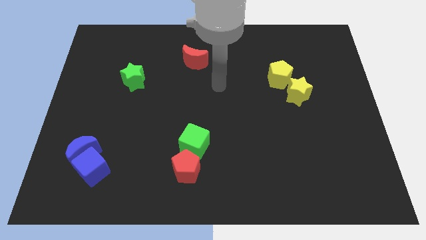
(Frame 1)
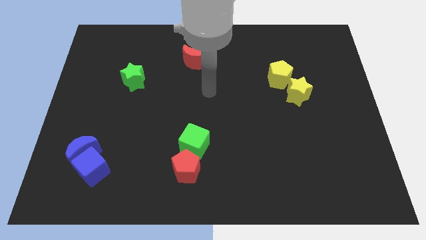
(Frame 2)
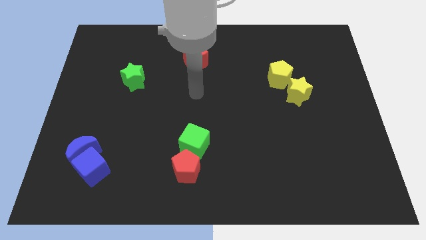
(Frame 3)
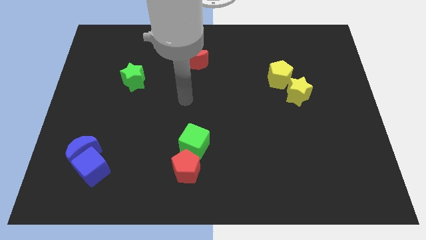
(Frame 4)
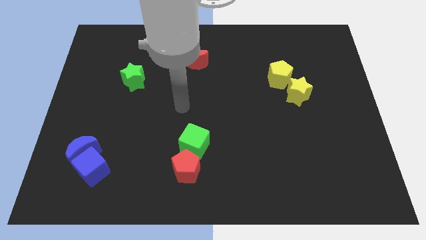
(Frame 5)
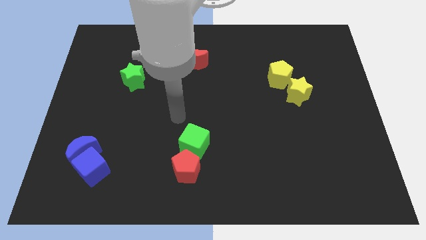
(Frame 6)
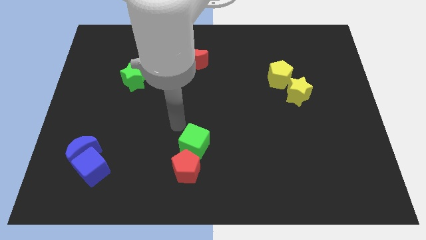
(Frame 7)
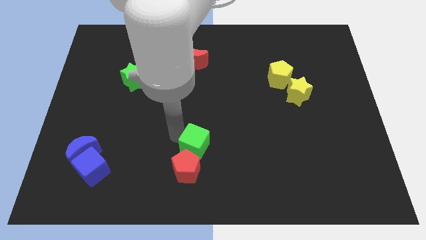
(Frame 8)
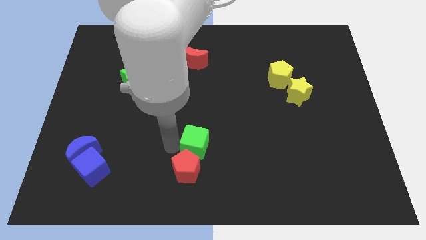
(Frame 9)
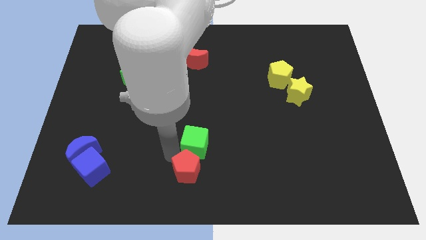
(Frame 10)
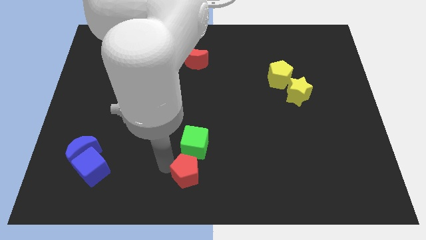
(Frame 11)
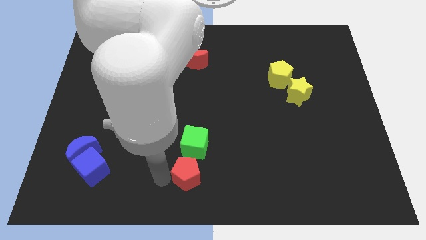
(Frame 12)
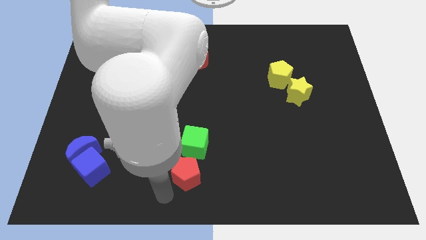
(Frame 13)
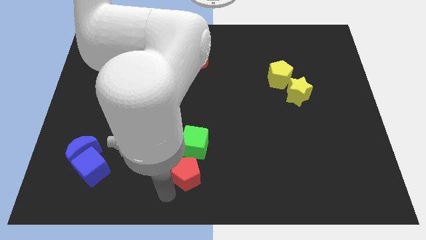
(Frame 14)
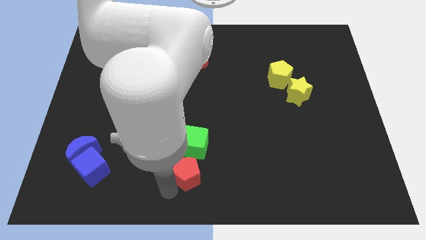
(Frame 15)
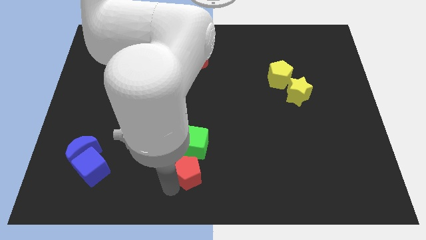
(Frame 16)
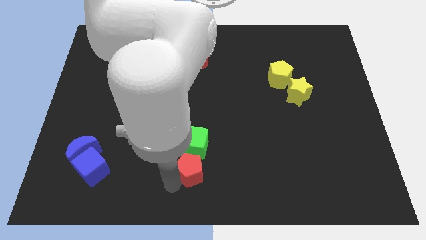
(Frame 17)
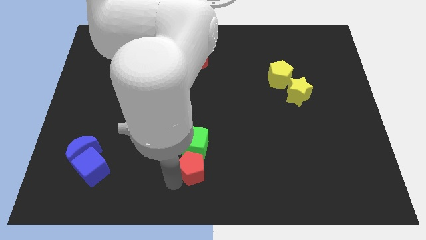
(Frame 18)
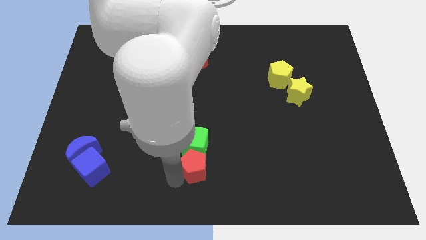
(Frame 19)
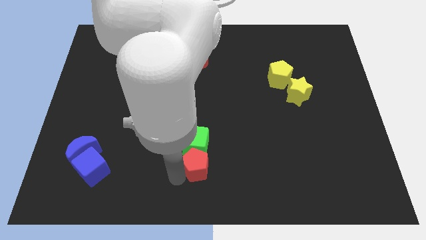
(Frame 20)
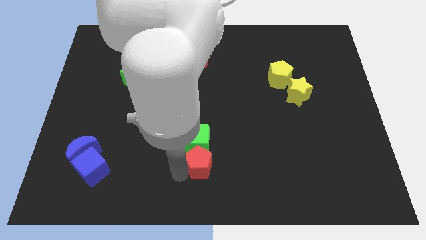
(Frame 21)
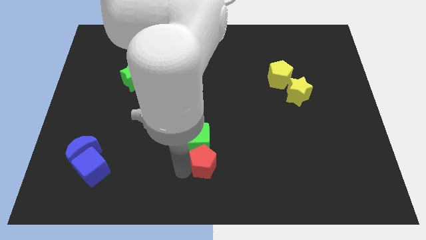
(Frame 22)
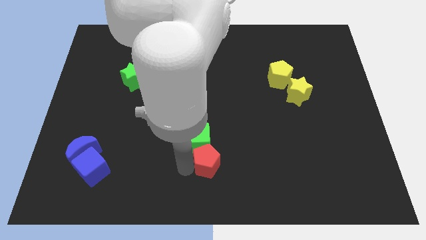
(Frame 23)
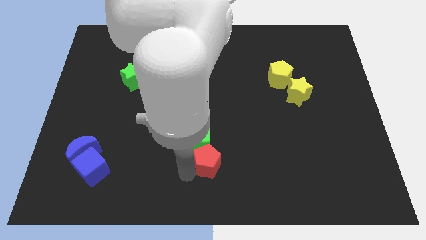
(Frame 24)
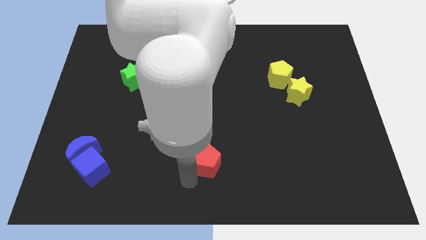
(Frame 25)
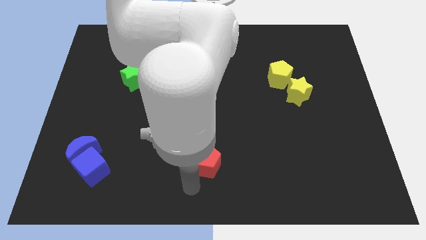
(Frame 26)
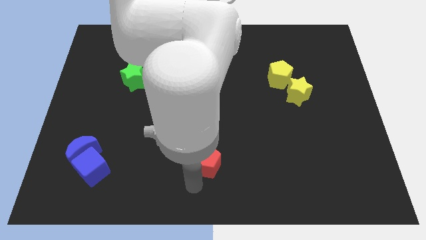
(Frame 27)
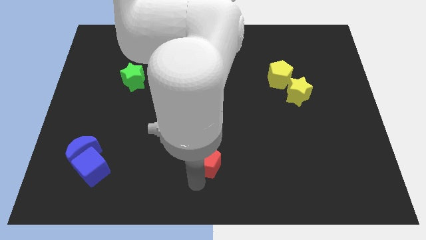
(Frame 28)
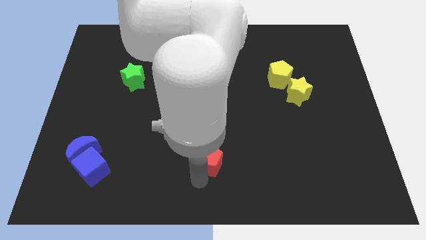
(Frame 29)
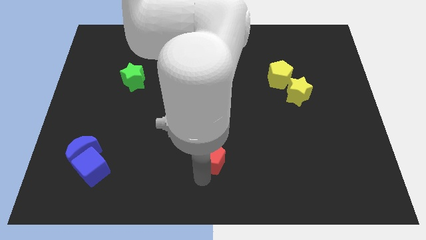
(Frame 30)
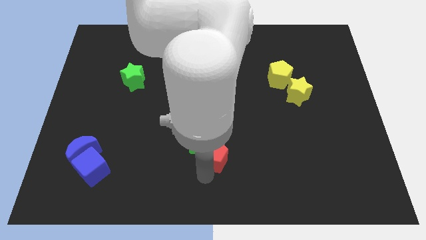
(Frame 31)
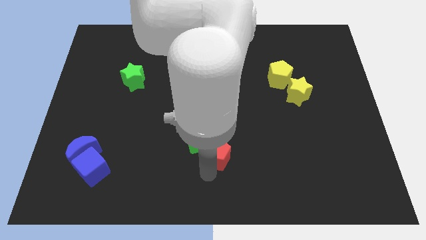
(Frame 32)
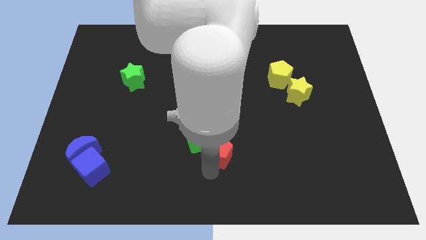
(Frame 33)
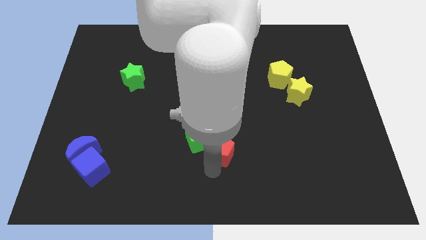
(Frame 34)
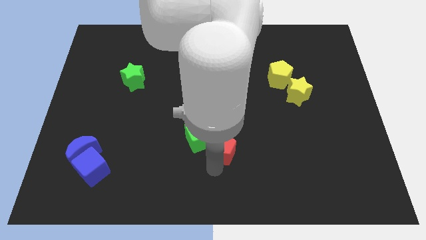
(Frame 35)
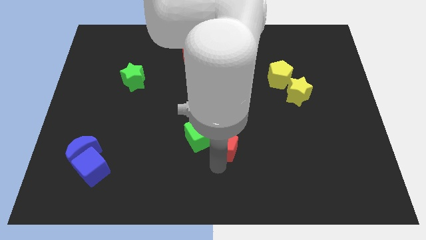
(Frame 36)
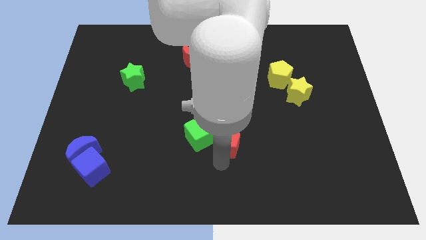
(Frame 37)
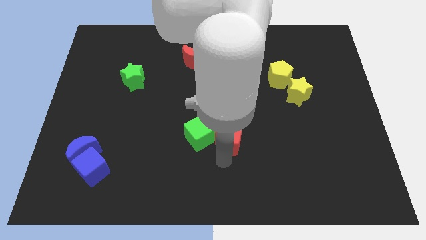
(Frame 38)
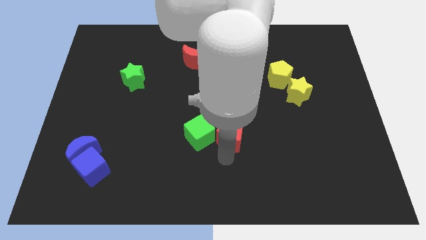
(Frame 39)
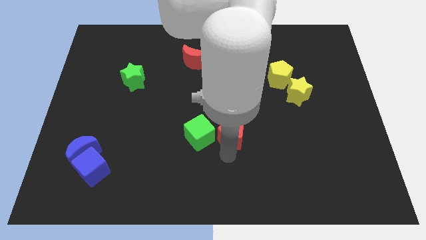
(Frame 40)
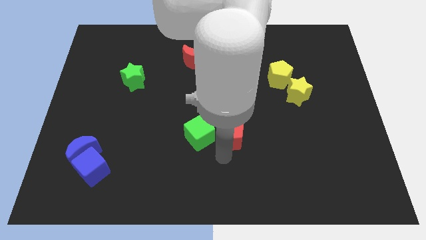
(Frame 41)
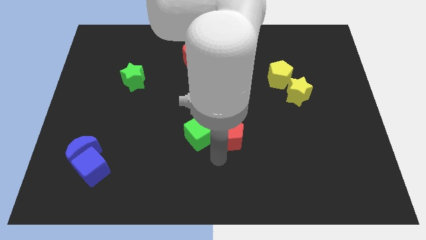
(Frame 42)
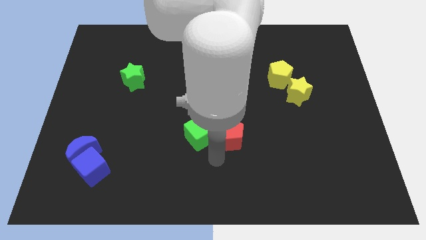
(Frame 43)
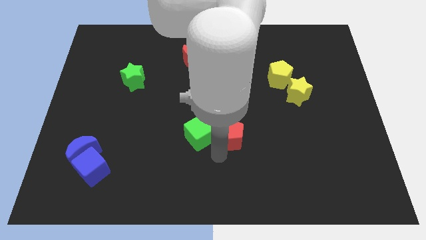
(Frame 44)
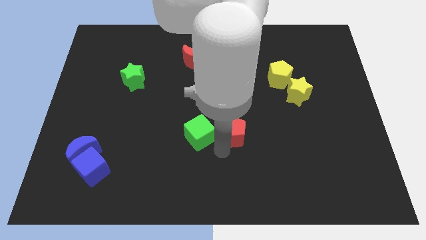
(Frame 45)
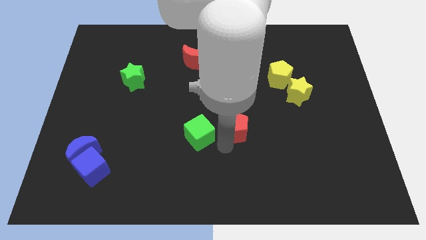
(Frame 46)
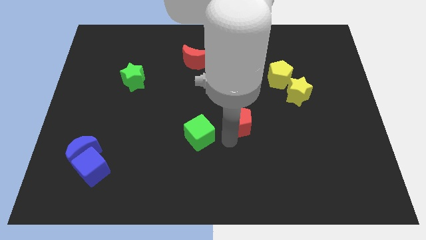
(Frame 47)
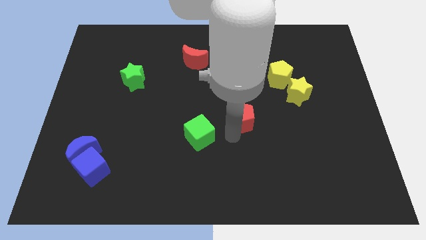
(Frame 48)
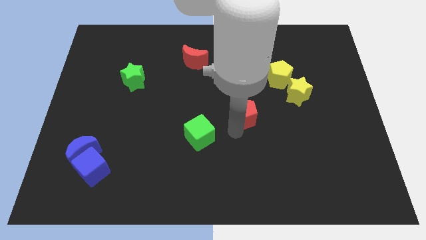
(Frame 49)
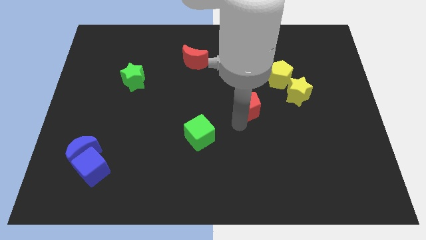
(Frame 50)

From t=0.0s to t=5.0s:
put the red pentagon to the bottom left of the yellow pentagon

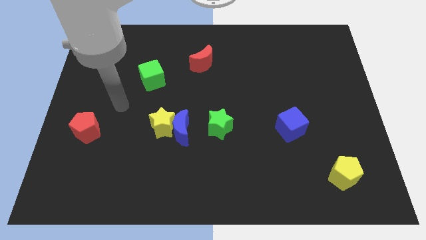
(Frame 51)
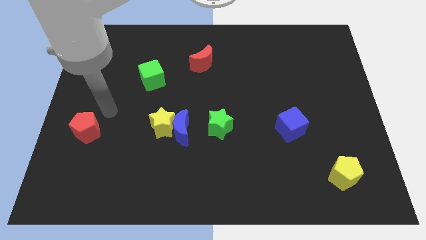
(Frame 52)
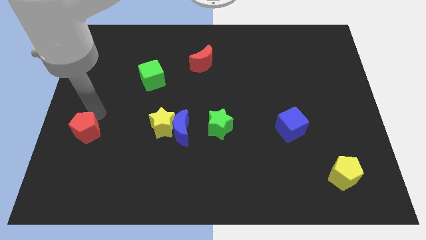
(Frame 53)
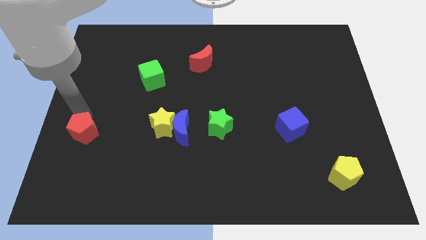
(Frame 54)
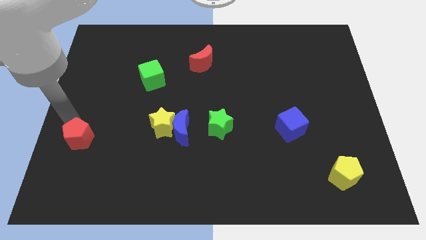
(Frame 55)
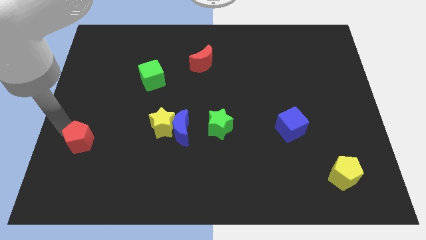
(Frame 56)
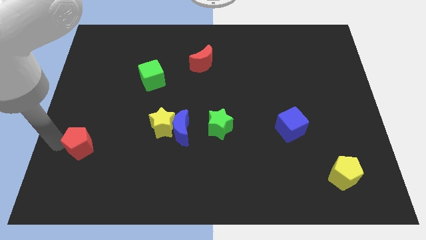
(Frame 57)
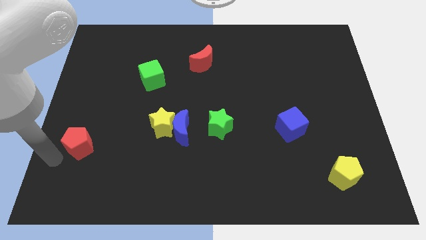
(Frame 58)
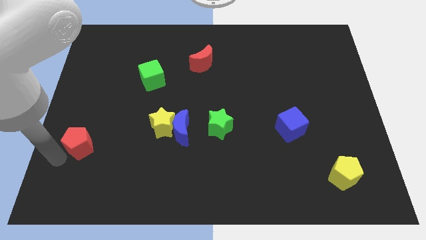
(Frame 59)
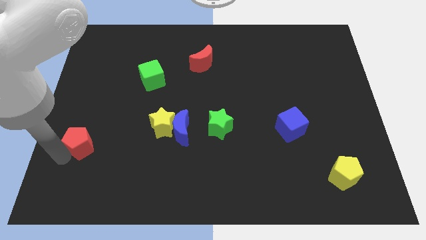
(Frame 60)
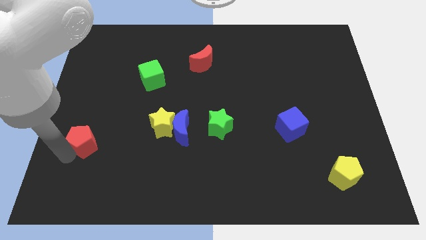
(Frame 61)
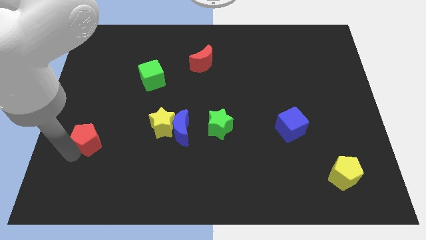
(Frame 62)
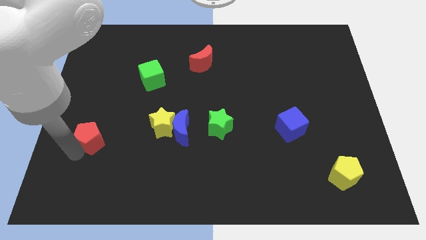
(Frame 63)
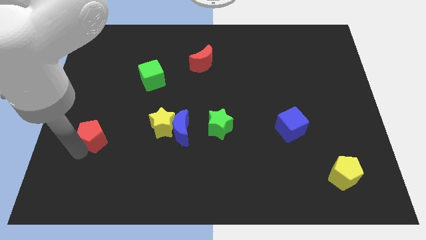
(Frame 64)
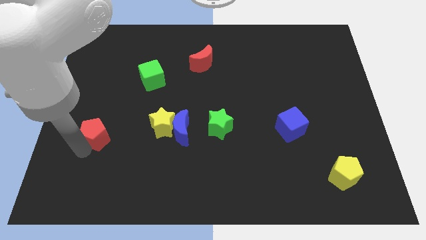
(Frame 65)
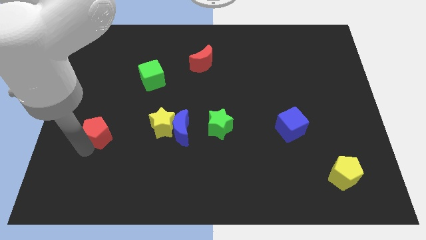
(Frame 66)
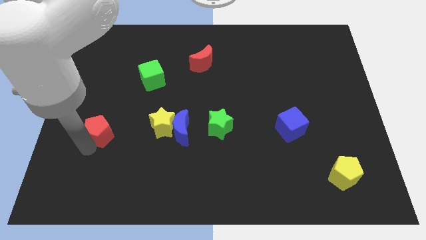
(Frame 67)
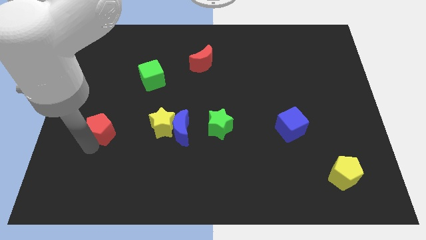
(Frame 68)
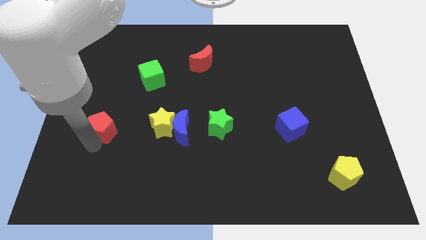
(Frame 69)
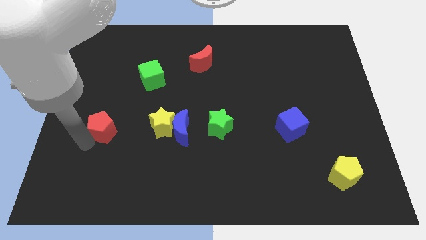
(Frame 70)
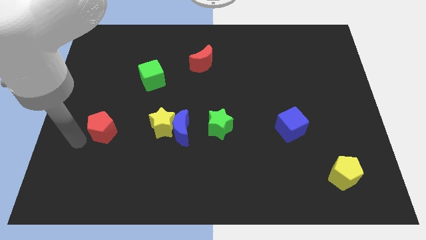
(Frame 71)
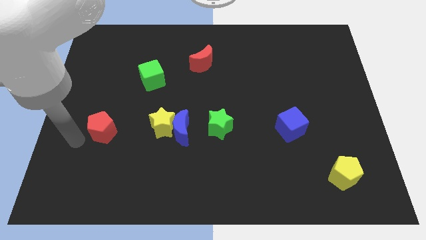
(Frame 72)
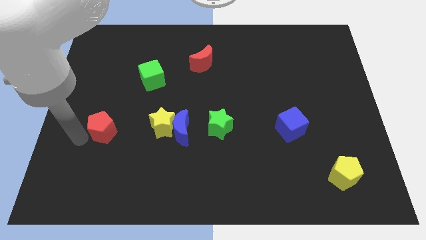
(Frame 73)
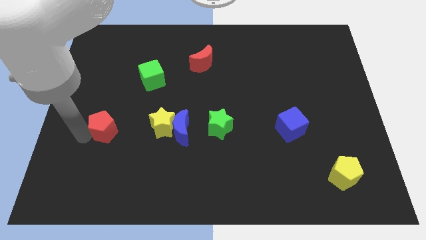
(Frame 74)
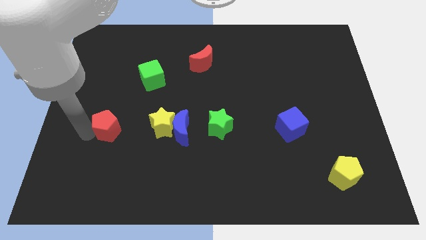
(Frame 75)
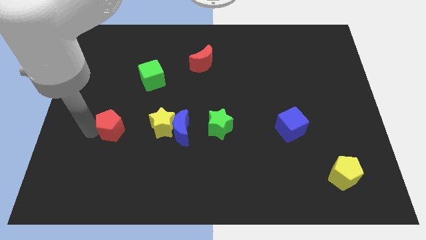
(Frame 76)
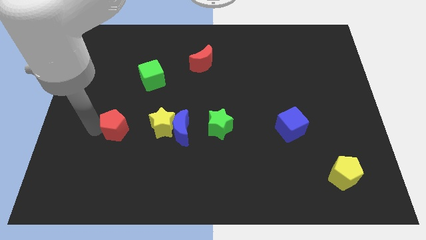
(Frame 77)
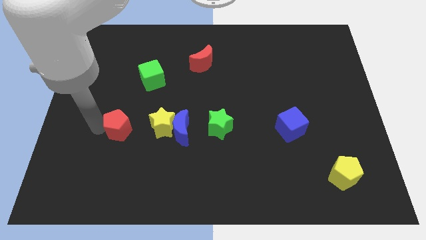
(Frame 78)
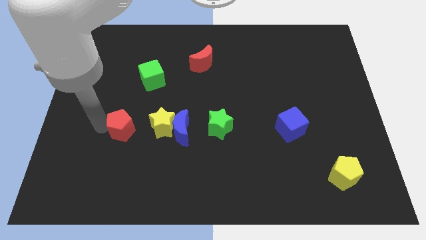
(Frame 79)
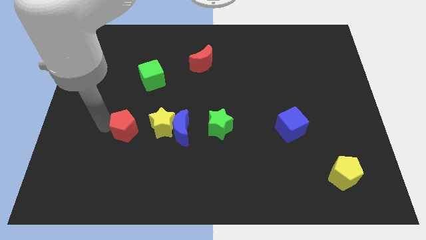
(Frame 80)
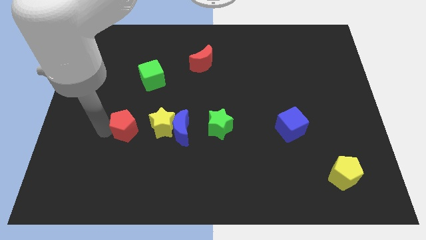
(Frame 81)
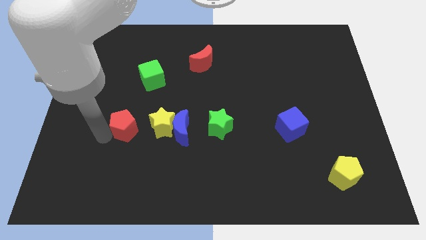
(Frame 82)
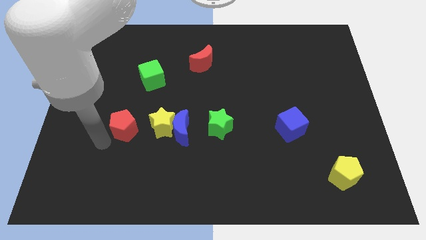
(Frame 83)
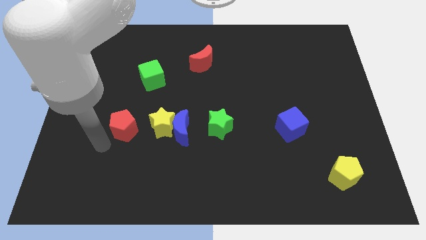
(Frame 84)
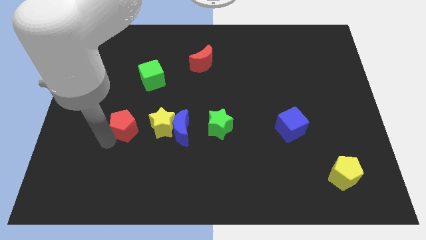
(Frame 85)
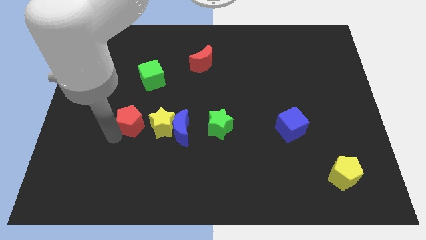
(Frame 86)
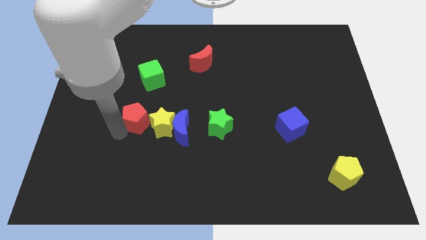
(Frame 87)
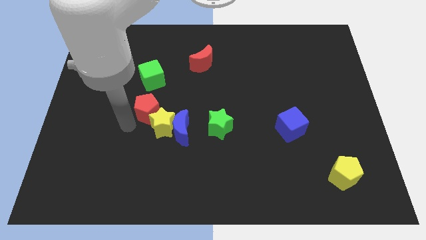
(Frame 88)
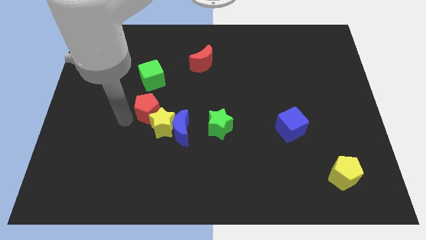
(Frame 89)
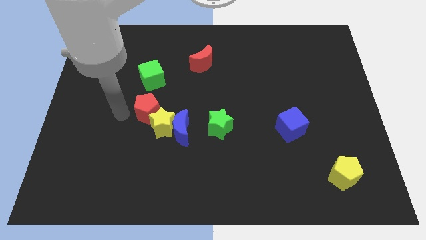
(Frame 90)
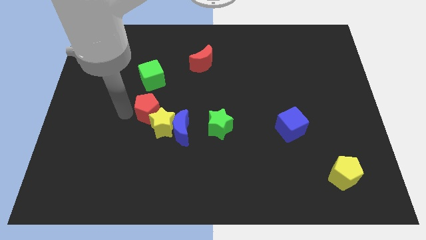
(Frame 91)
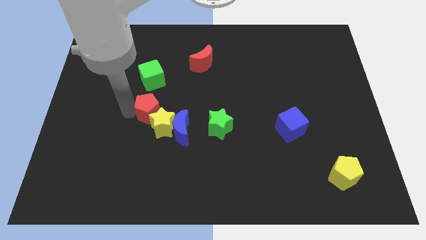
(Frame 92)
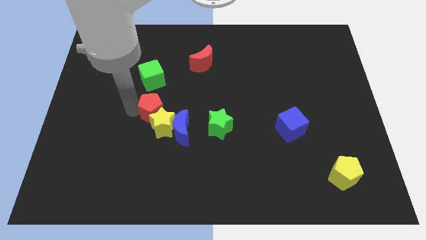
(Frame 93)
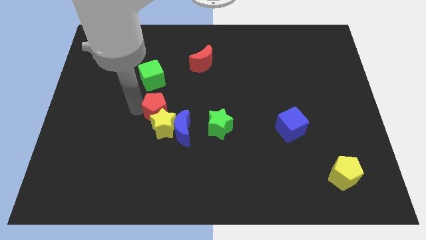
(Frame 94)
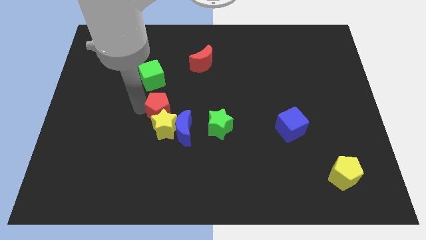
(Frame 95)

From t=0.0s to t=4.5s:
move the red pentagon to the top right of the yellow star
